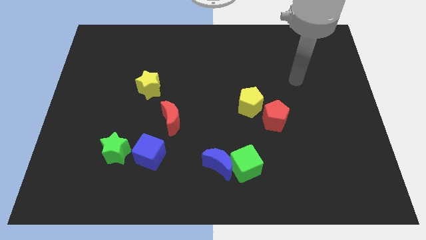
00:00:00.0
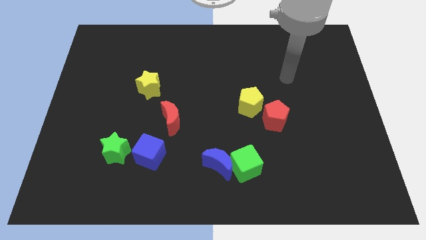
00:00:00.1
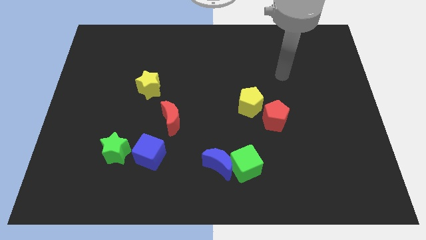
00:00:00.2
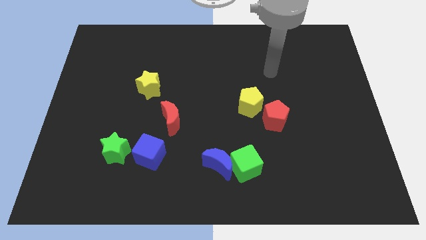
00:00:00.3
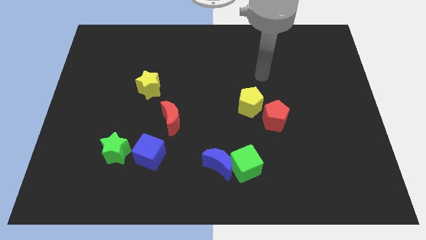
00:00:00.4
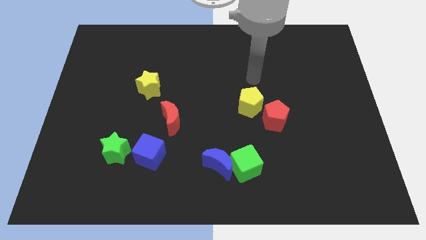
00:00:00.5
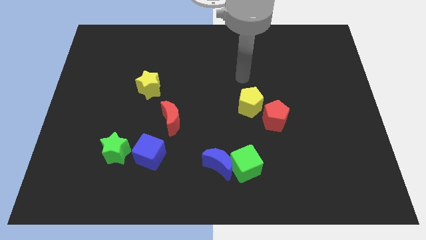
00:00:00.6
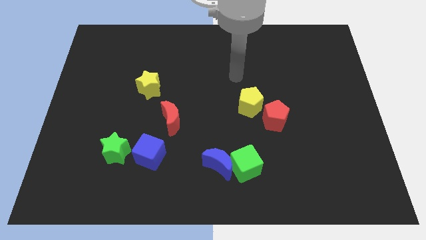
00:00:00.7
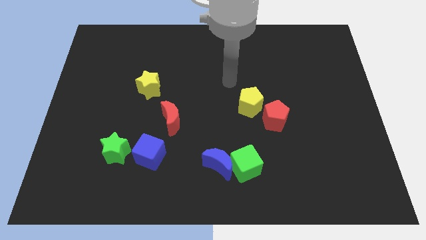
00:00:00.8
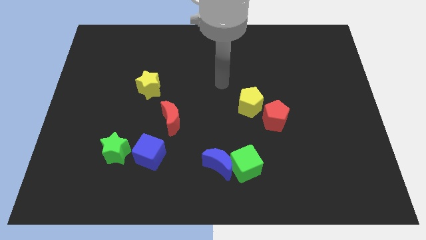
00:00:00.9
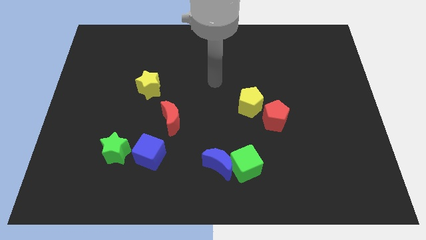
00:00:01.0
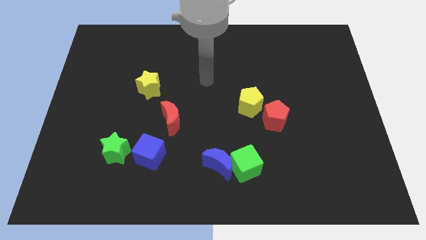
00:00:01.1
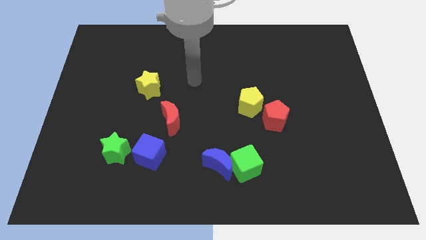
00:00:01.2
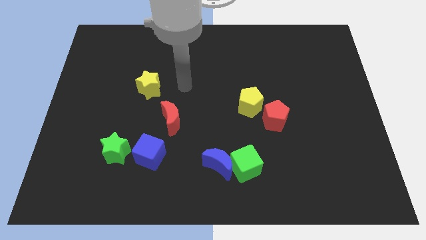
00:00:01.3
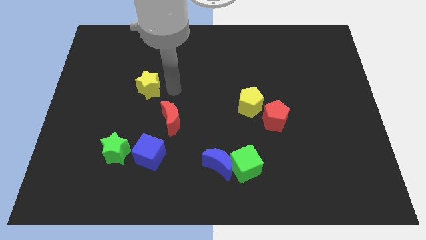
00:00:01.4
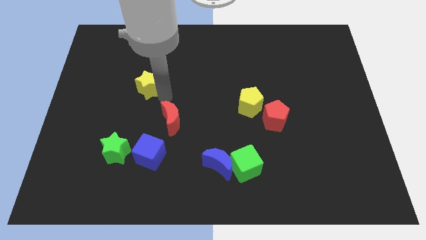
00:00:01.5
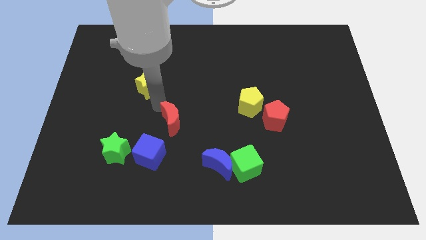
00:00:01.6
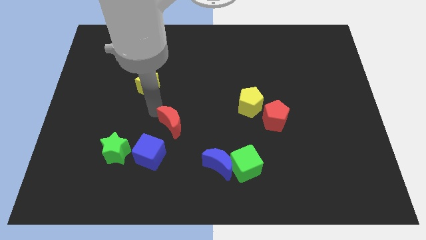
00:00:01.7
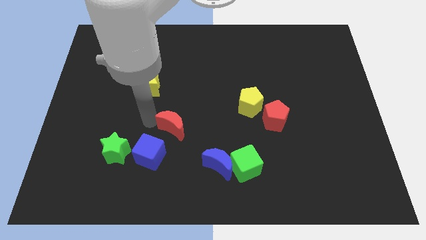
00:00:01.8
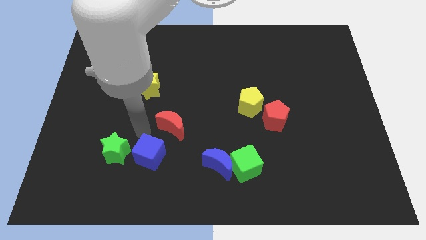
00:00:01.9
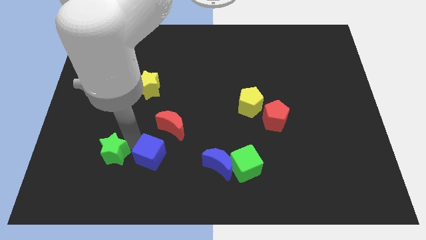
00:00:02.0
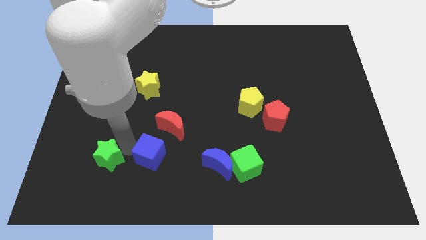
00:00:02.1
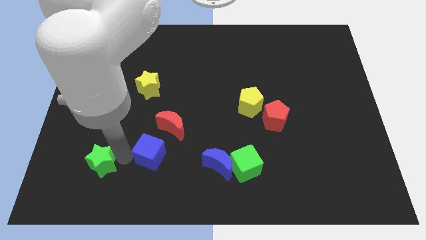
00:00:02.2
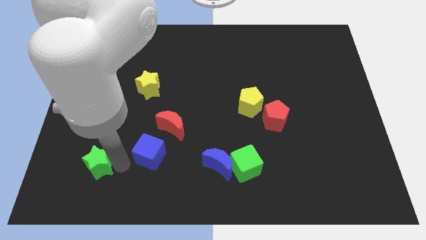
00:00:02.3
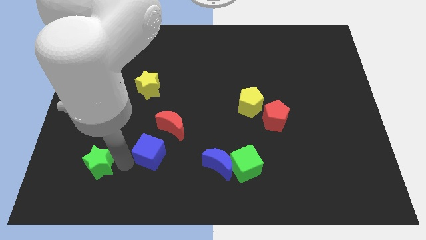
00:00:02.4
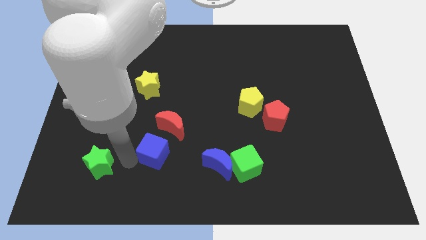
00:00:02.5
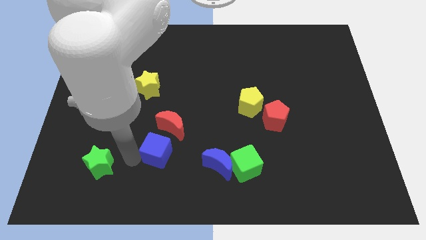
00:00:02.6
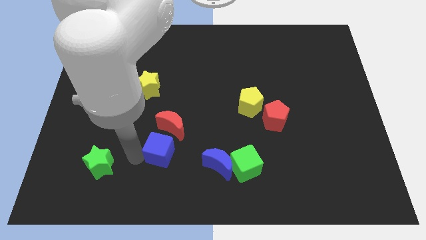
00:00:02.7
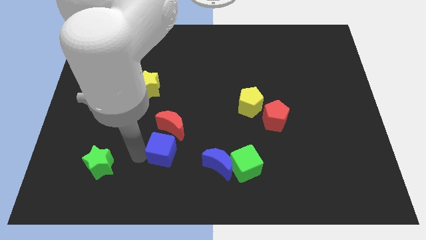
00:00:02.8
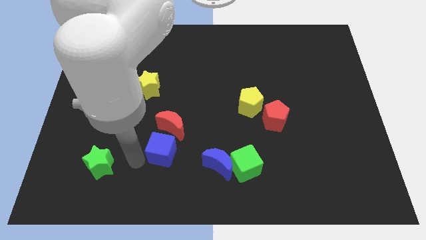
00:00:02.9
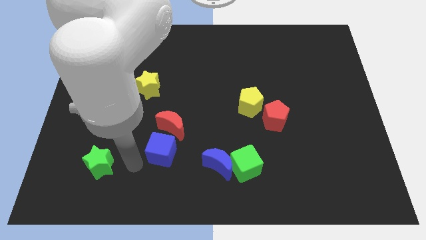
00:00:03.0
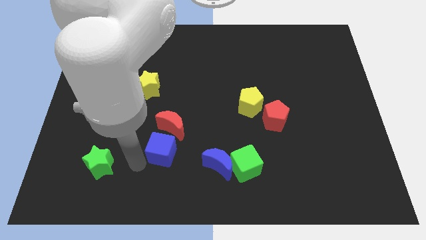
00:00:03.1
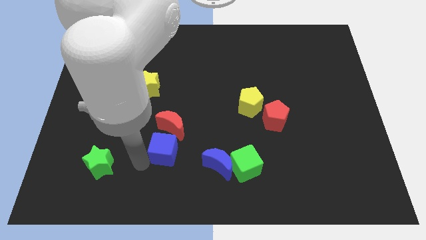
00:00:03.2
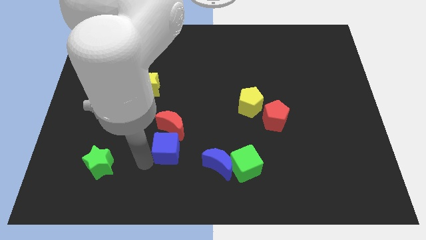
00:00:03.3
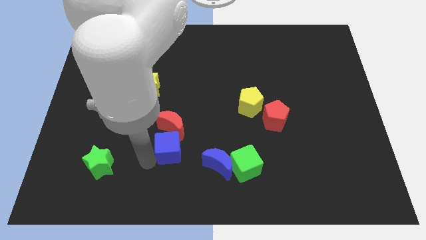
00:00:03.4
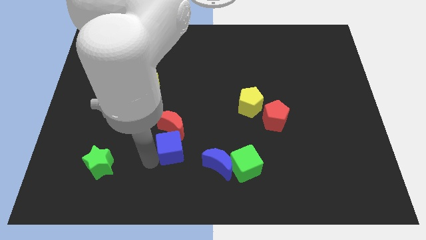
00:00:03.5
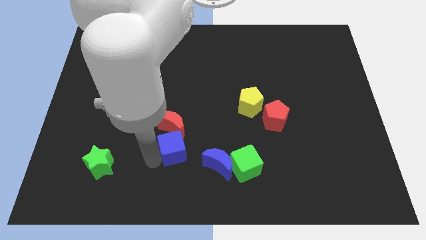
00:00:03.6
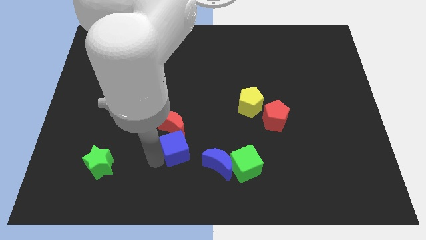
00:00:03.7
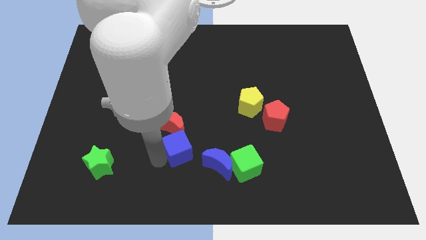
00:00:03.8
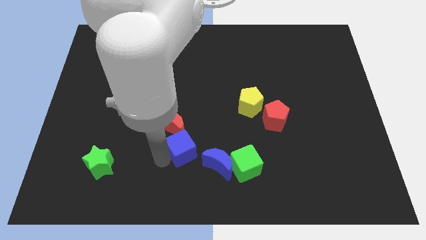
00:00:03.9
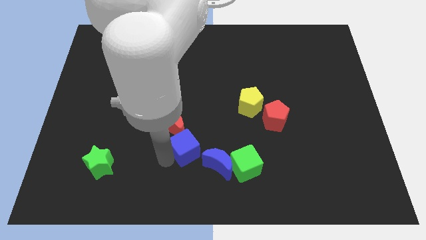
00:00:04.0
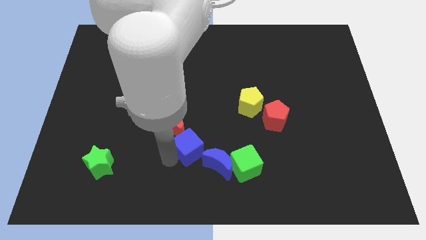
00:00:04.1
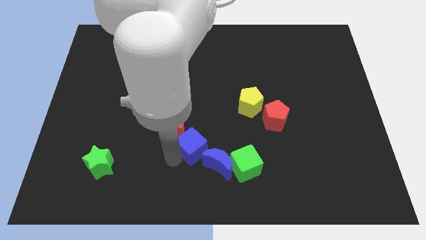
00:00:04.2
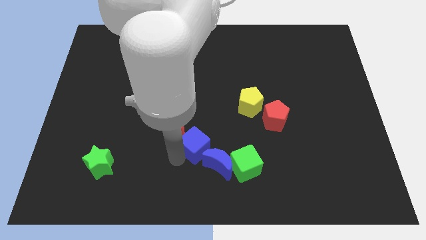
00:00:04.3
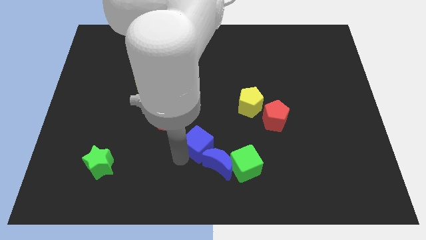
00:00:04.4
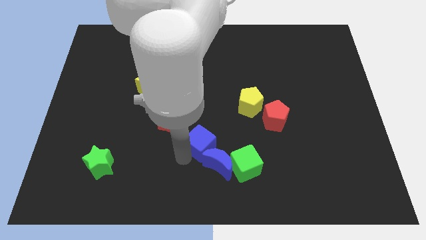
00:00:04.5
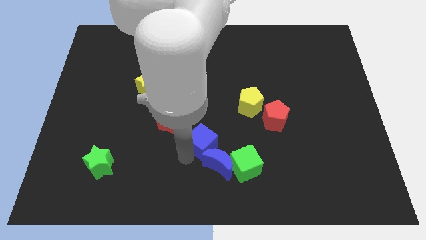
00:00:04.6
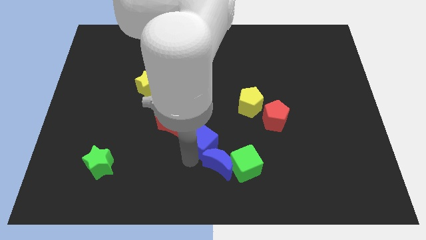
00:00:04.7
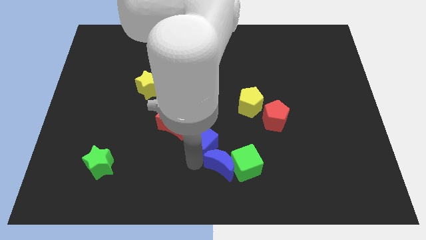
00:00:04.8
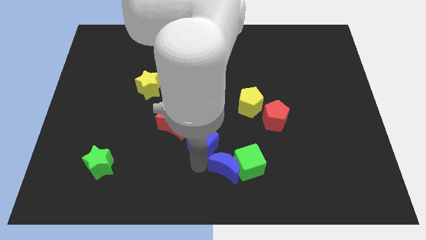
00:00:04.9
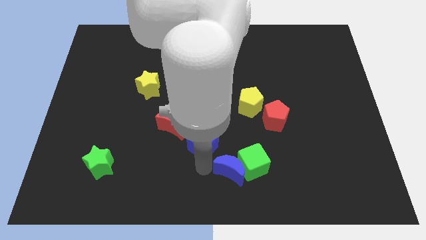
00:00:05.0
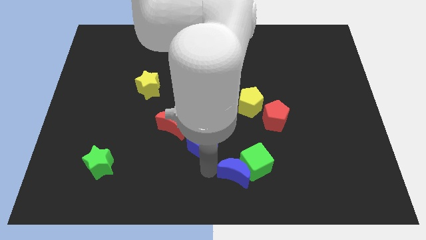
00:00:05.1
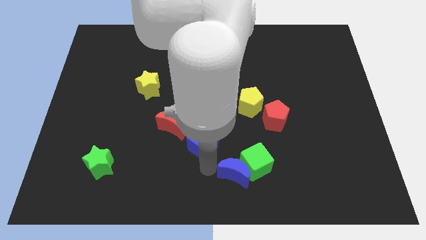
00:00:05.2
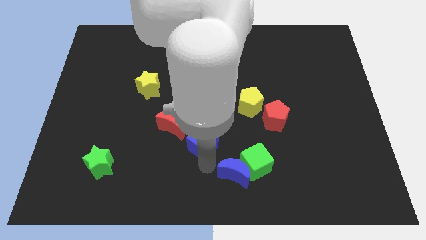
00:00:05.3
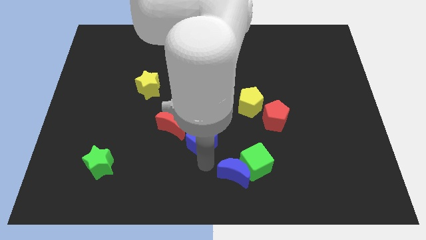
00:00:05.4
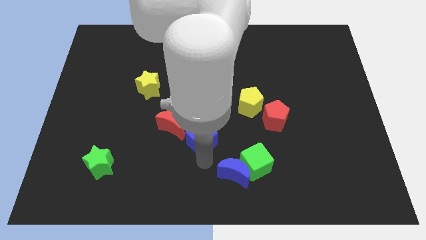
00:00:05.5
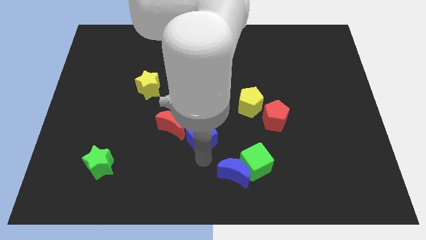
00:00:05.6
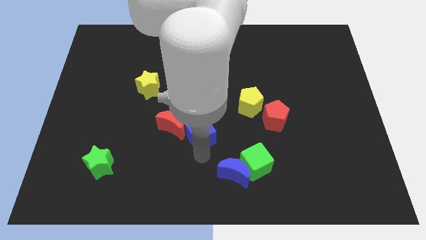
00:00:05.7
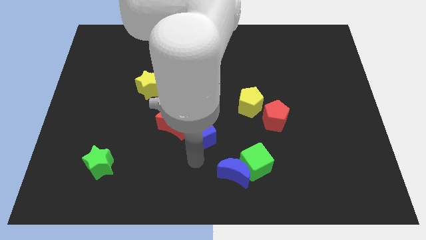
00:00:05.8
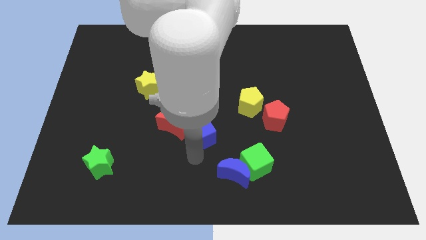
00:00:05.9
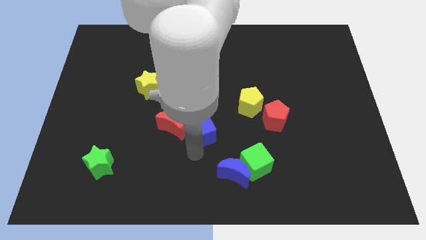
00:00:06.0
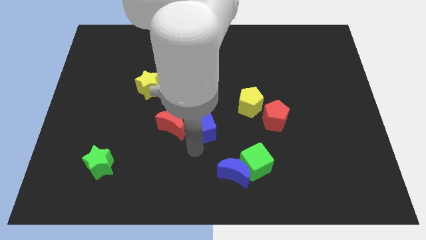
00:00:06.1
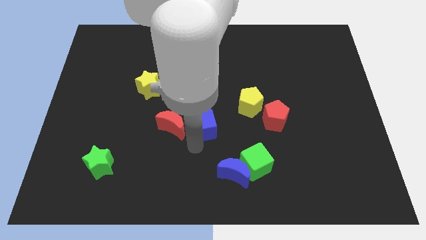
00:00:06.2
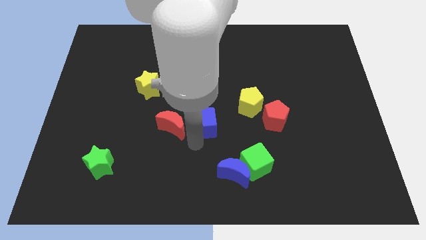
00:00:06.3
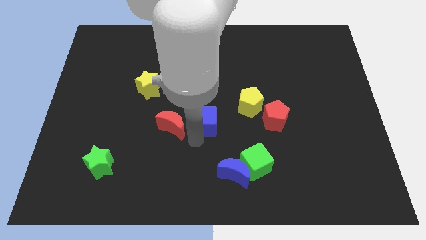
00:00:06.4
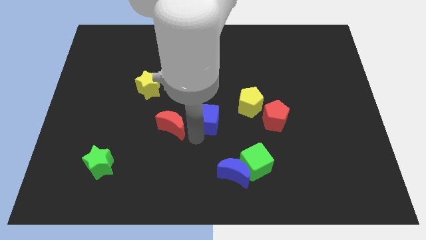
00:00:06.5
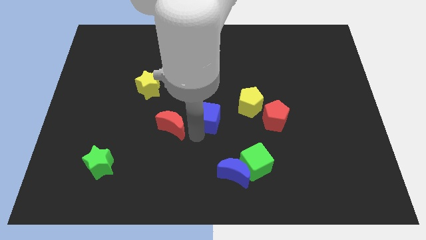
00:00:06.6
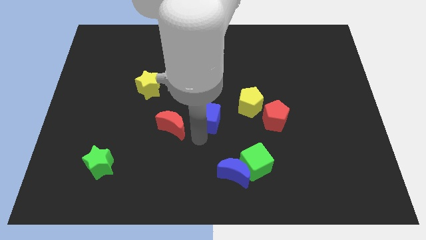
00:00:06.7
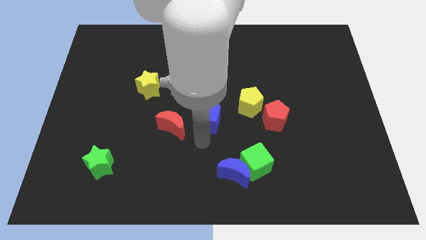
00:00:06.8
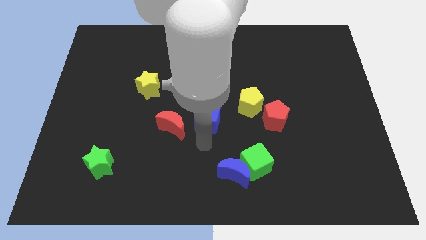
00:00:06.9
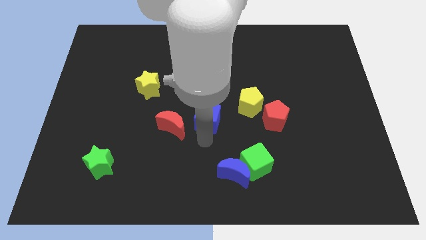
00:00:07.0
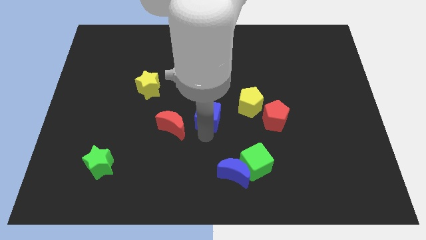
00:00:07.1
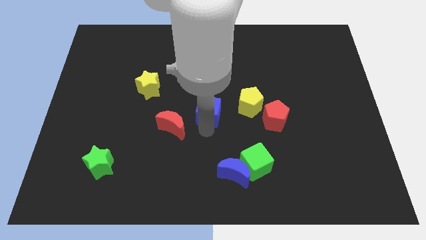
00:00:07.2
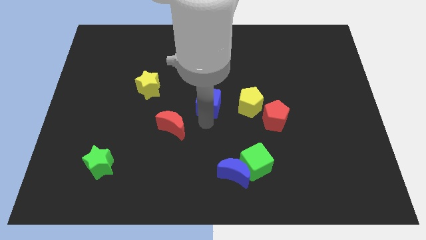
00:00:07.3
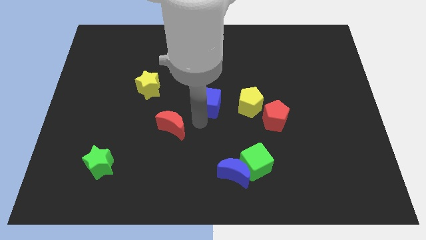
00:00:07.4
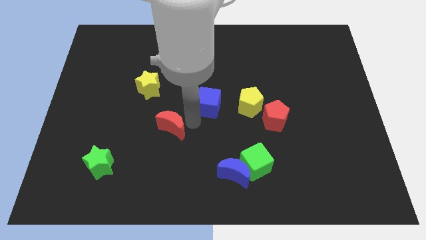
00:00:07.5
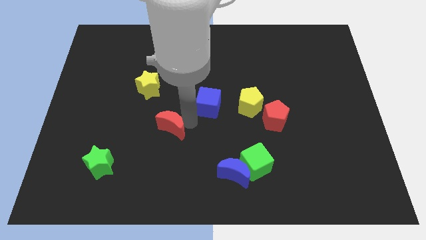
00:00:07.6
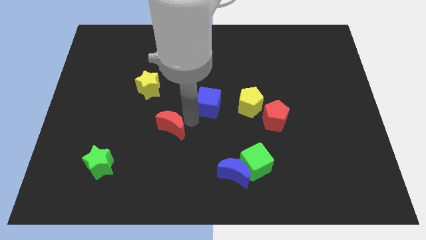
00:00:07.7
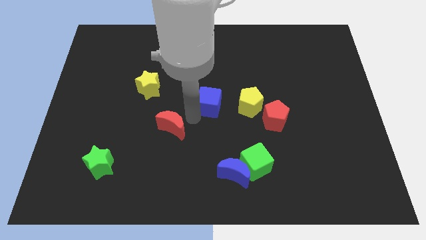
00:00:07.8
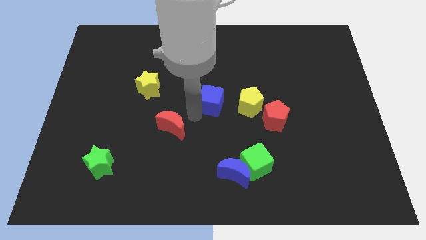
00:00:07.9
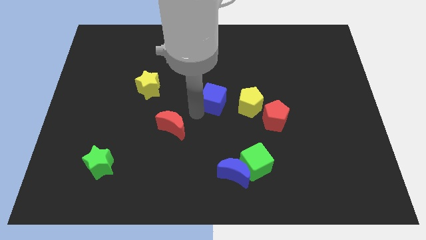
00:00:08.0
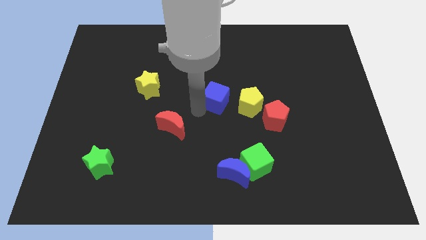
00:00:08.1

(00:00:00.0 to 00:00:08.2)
slide the blue cube diagonally up and to the left of the yellow pentagon
